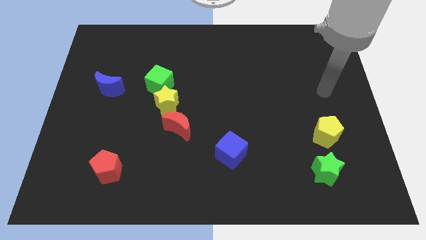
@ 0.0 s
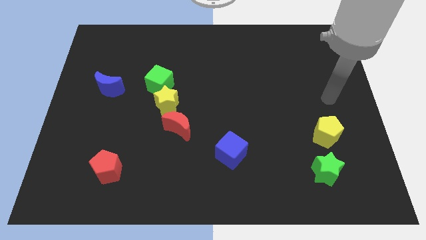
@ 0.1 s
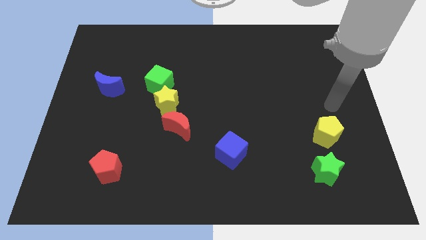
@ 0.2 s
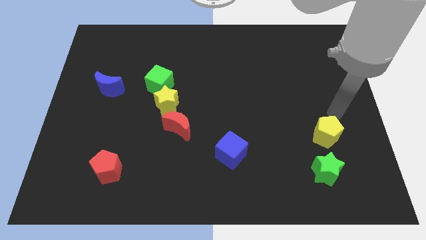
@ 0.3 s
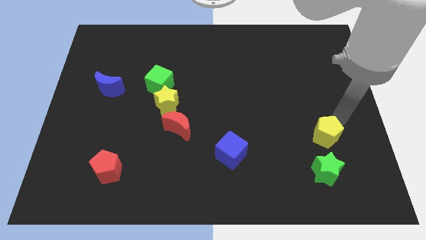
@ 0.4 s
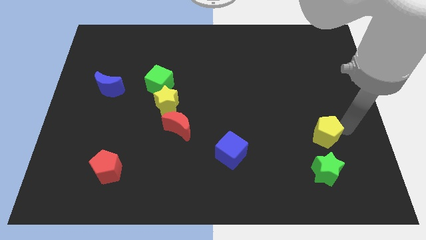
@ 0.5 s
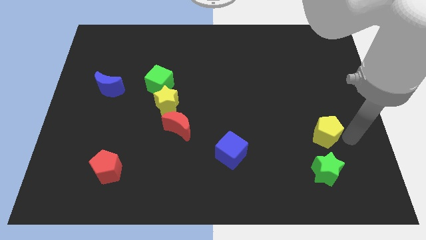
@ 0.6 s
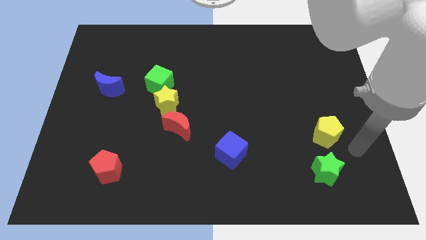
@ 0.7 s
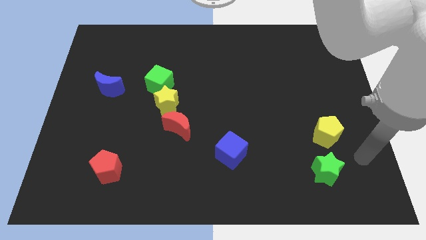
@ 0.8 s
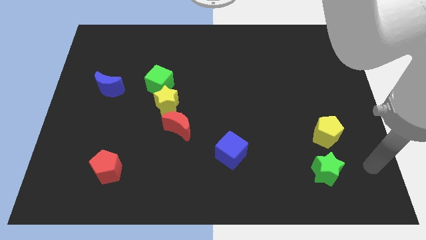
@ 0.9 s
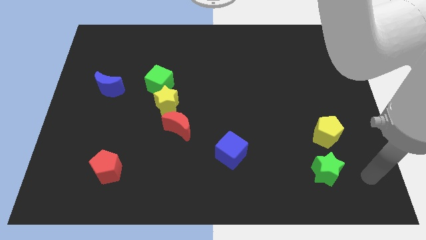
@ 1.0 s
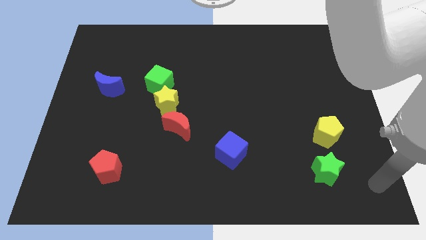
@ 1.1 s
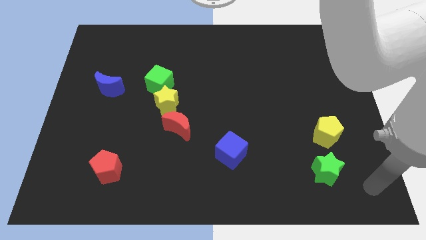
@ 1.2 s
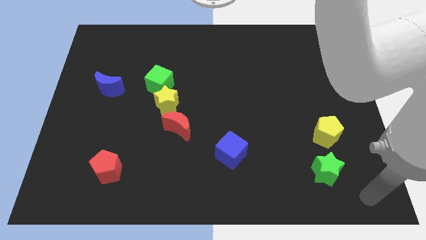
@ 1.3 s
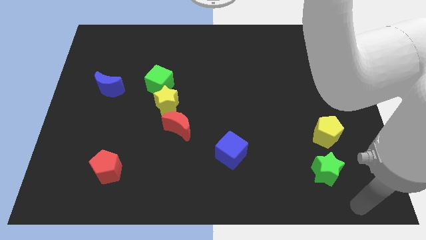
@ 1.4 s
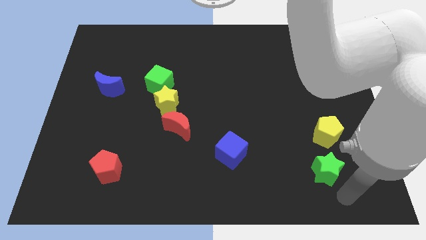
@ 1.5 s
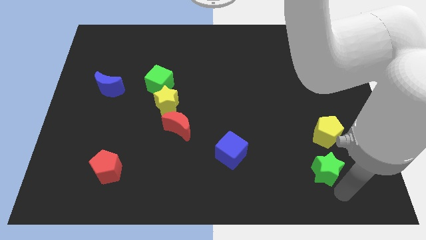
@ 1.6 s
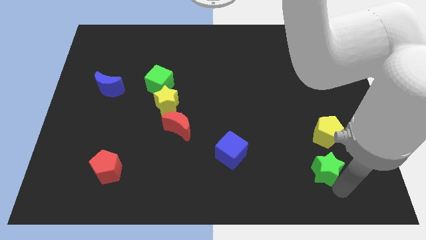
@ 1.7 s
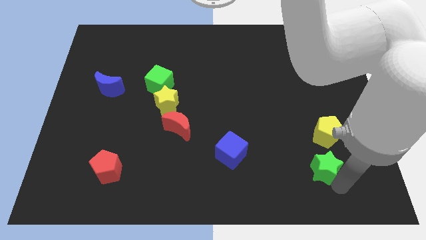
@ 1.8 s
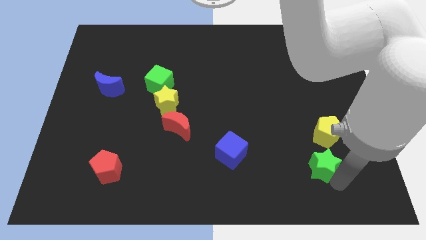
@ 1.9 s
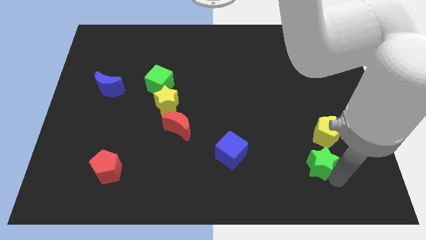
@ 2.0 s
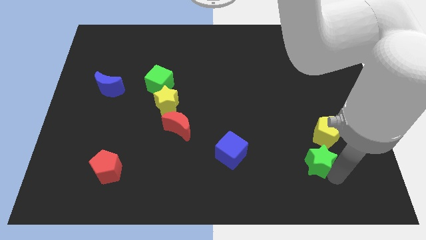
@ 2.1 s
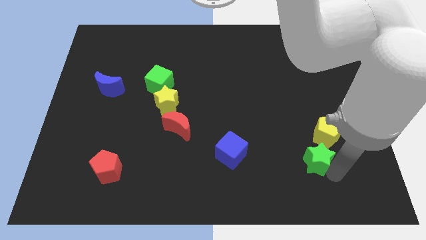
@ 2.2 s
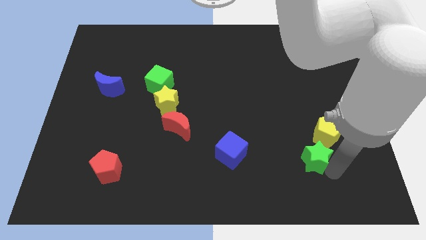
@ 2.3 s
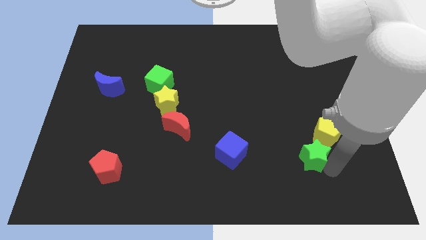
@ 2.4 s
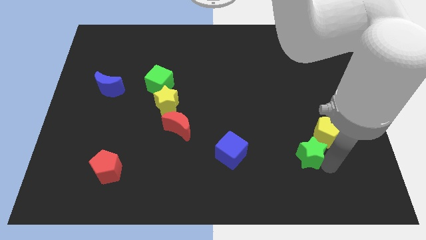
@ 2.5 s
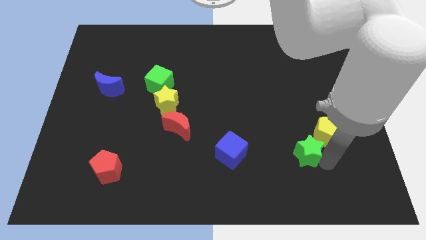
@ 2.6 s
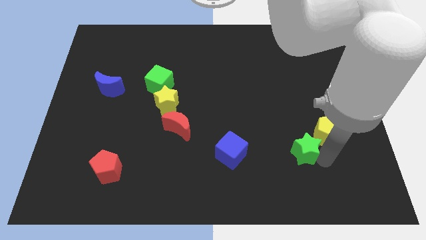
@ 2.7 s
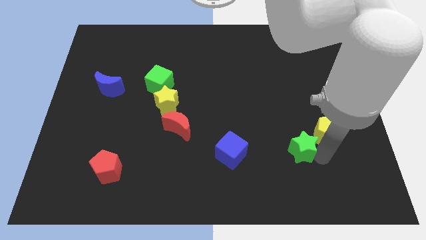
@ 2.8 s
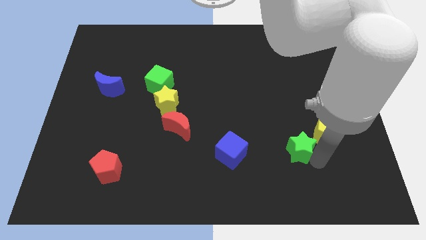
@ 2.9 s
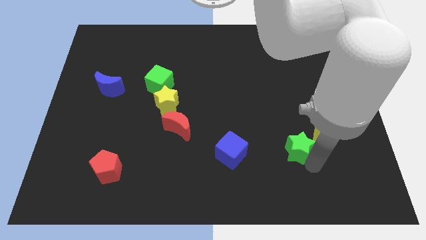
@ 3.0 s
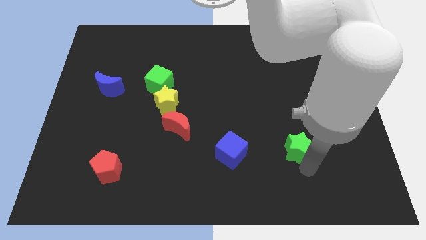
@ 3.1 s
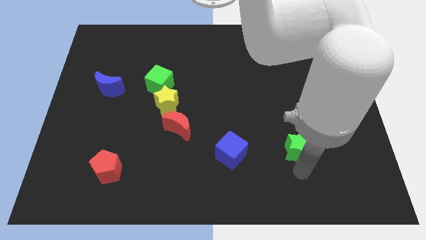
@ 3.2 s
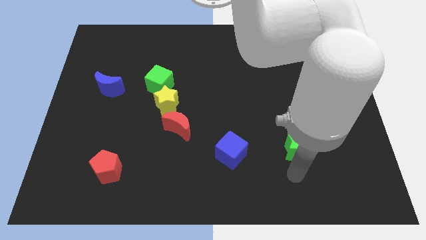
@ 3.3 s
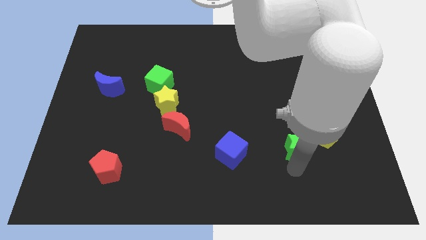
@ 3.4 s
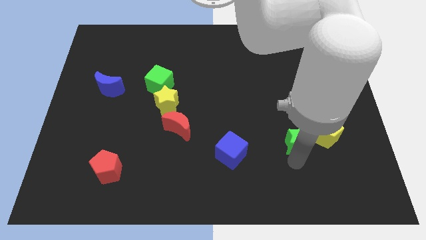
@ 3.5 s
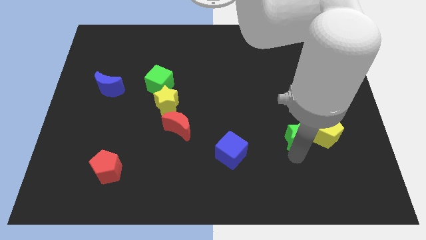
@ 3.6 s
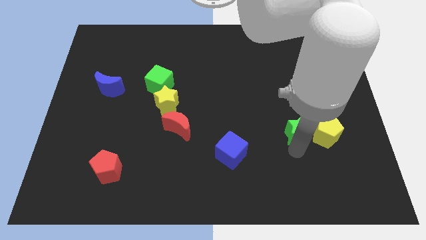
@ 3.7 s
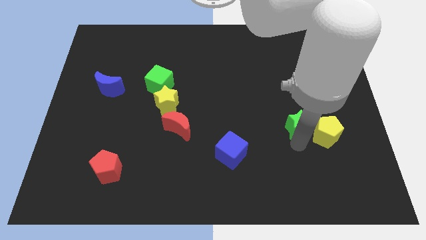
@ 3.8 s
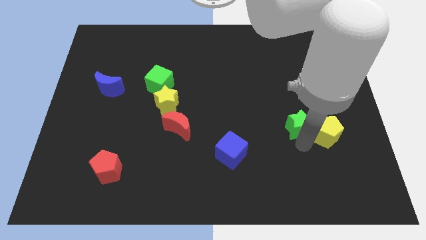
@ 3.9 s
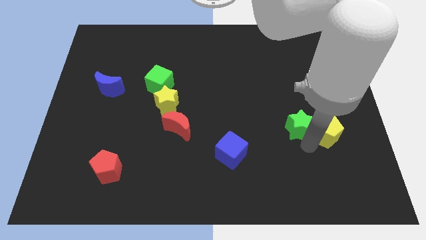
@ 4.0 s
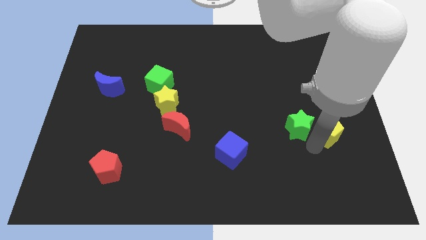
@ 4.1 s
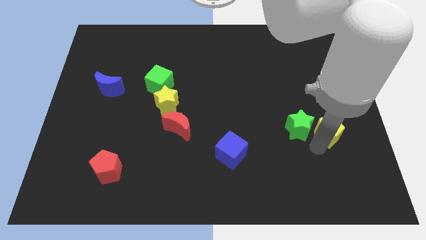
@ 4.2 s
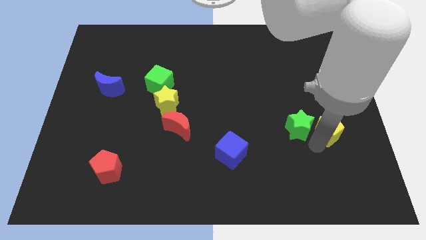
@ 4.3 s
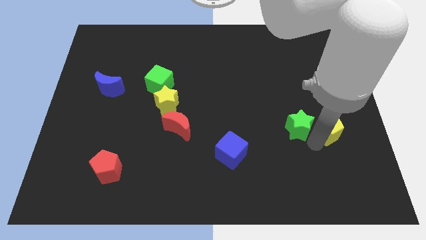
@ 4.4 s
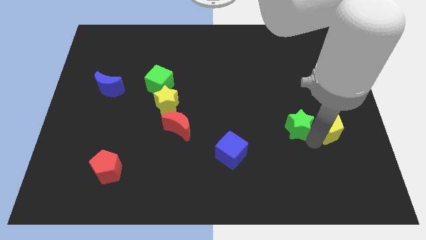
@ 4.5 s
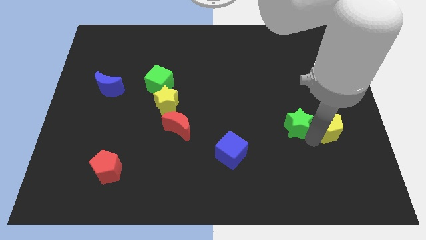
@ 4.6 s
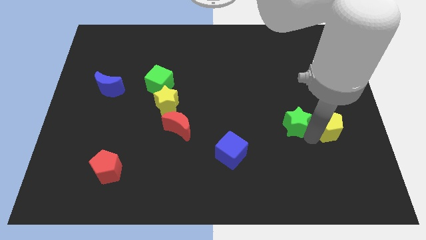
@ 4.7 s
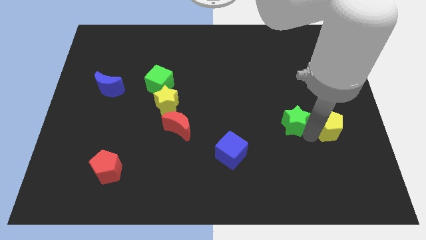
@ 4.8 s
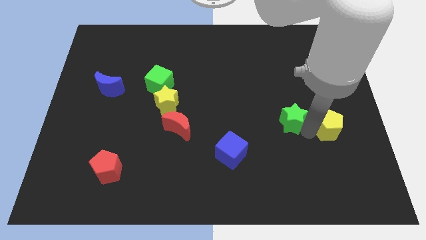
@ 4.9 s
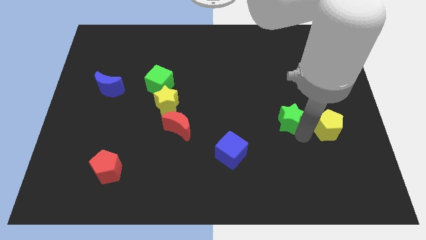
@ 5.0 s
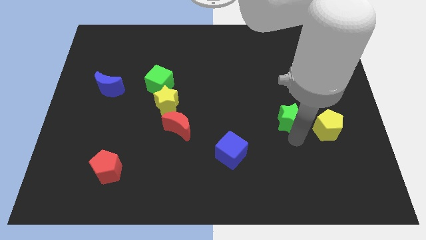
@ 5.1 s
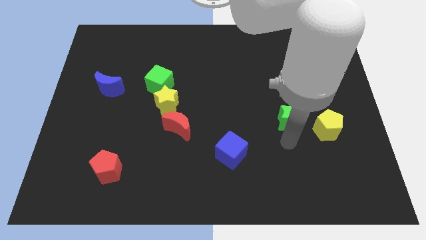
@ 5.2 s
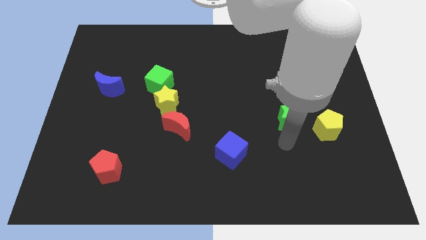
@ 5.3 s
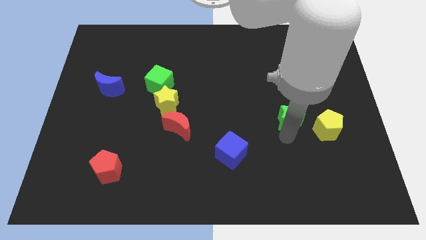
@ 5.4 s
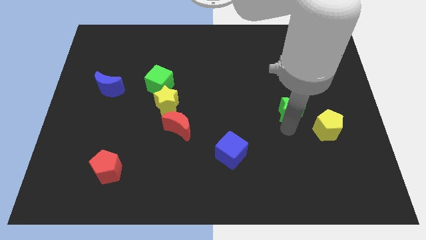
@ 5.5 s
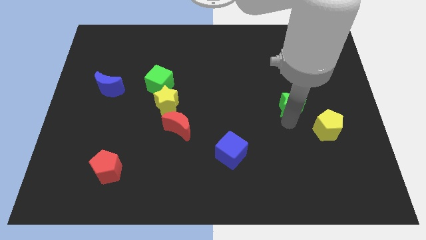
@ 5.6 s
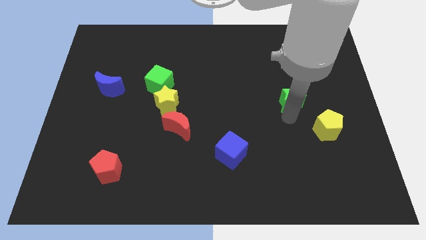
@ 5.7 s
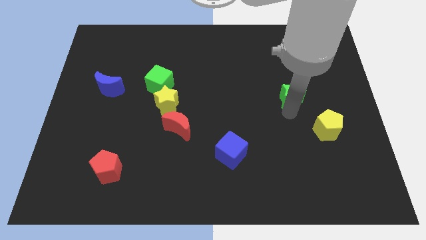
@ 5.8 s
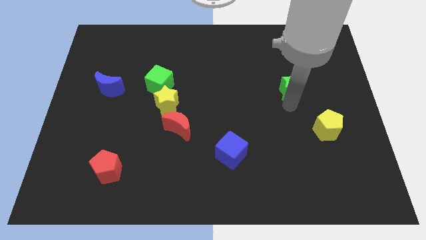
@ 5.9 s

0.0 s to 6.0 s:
move the green star upwards

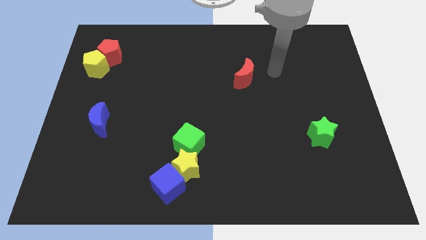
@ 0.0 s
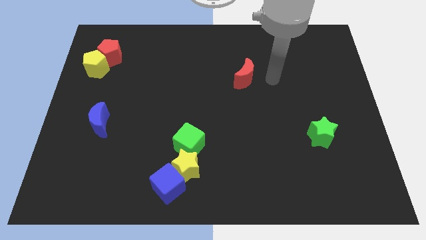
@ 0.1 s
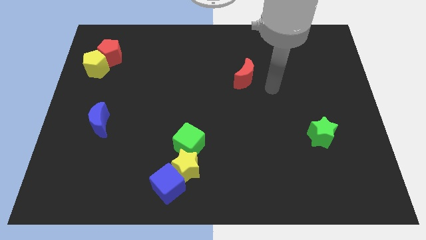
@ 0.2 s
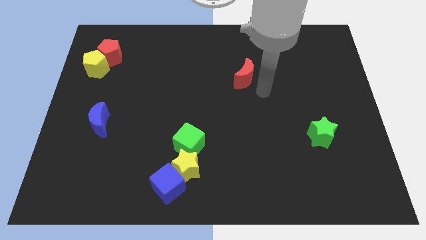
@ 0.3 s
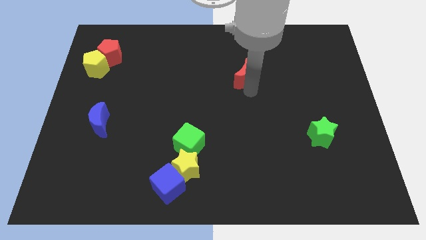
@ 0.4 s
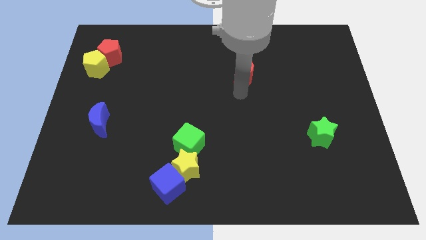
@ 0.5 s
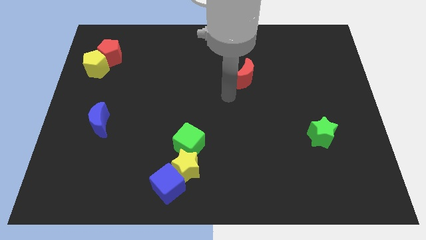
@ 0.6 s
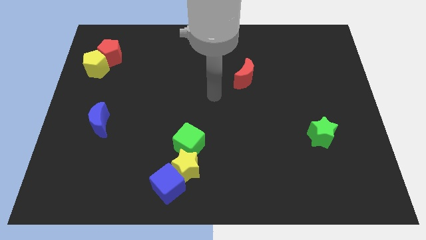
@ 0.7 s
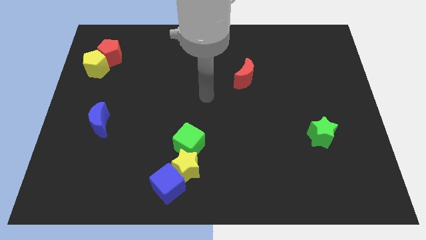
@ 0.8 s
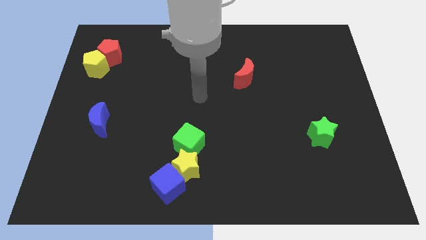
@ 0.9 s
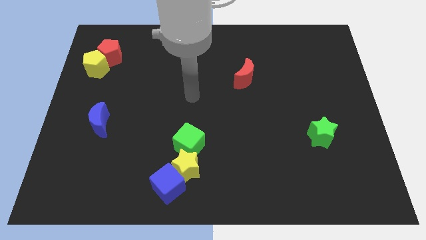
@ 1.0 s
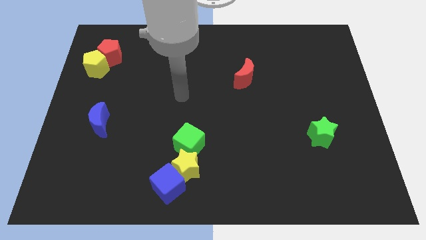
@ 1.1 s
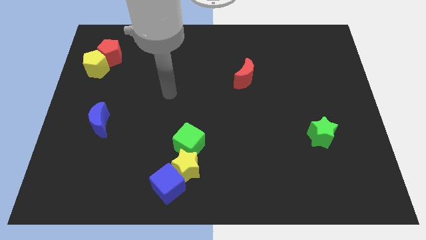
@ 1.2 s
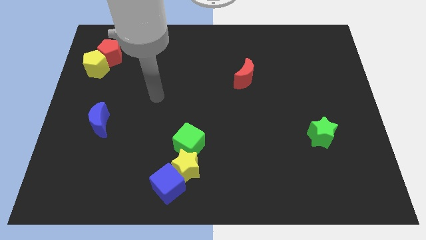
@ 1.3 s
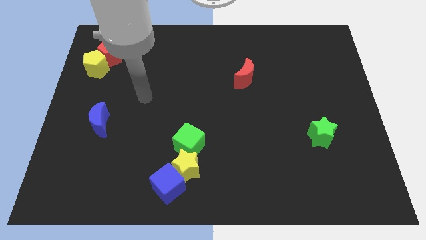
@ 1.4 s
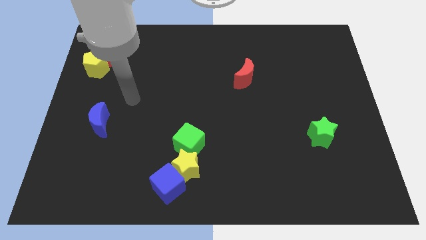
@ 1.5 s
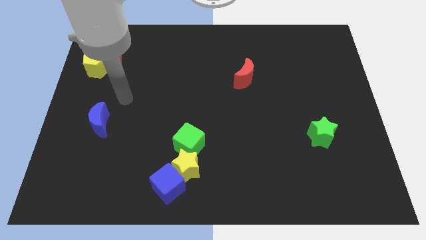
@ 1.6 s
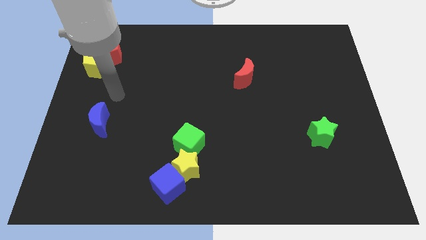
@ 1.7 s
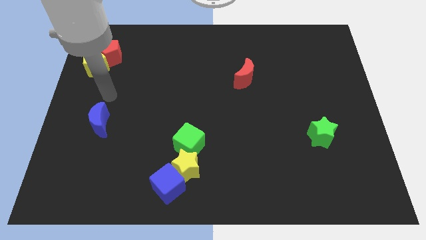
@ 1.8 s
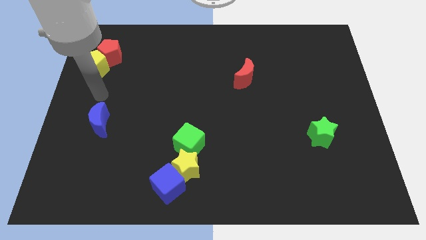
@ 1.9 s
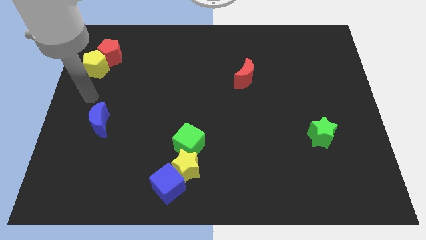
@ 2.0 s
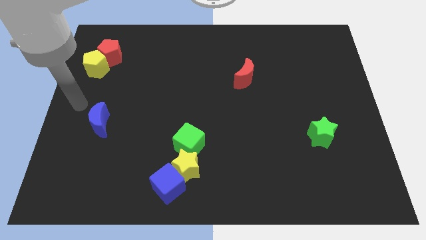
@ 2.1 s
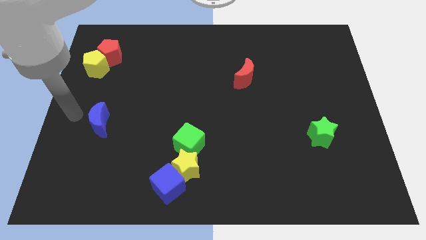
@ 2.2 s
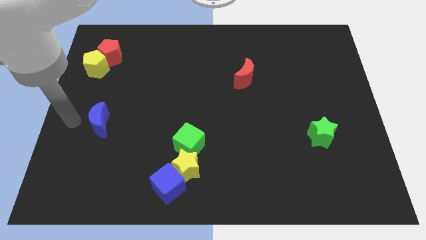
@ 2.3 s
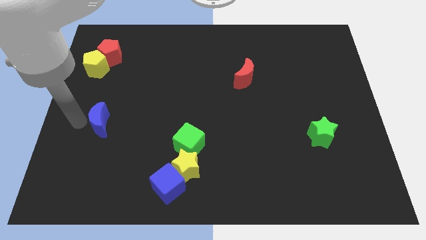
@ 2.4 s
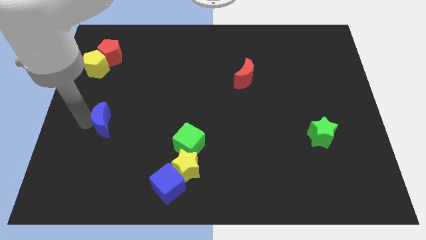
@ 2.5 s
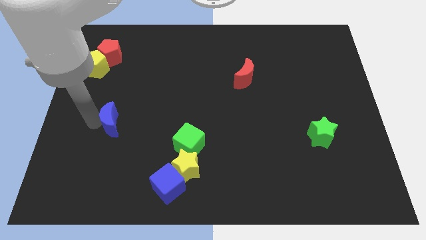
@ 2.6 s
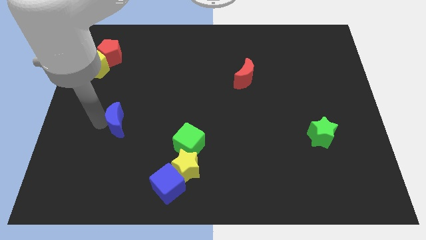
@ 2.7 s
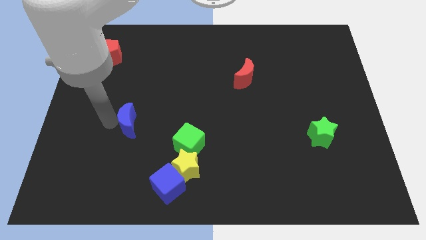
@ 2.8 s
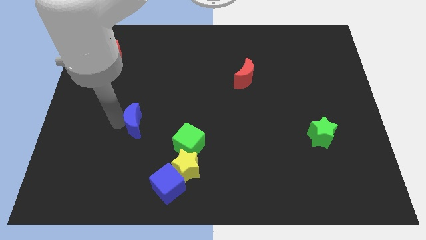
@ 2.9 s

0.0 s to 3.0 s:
slightly push the blue moon right
